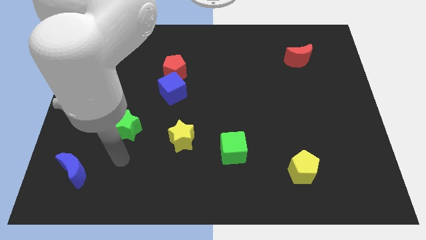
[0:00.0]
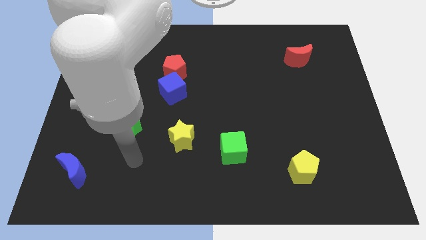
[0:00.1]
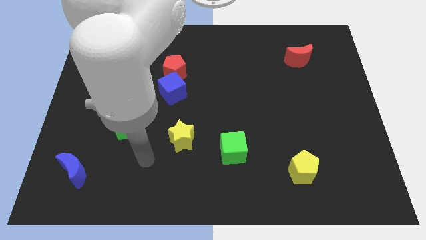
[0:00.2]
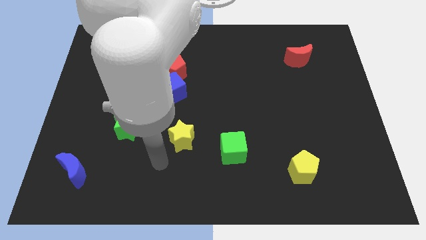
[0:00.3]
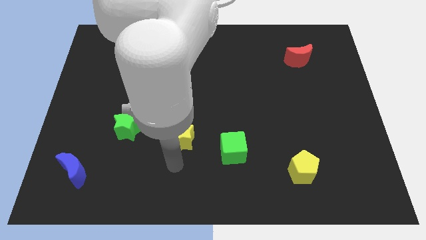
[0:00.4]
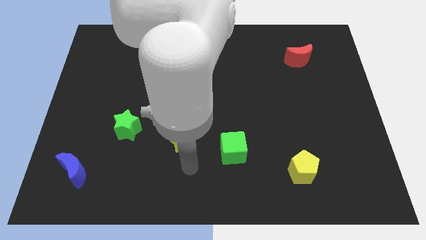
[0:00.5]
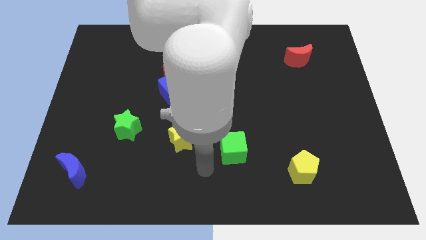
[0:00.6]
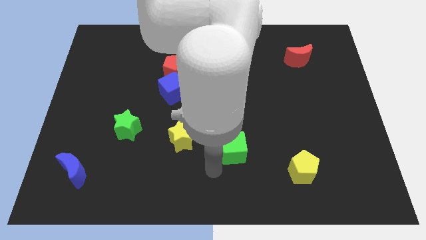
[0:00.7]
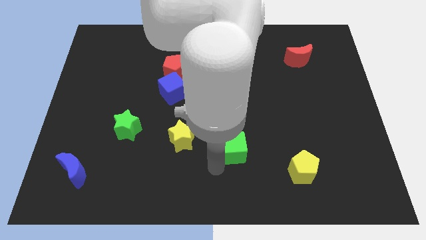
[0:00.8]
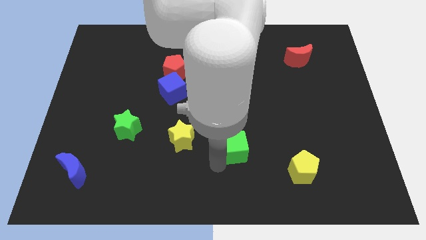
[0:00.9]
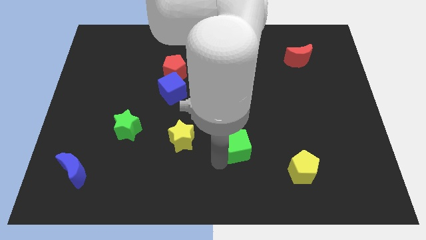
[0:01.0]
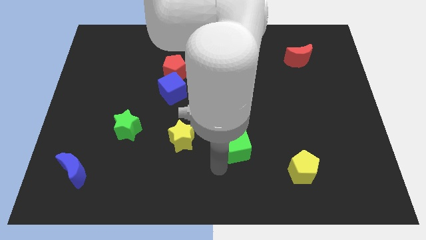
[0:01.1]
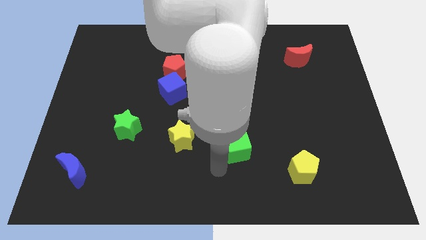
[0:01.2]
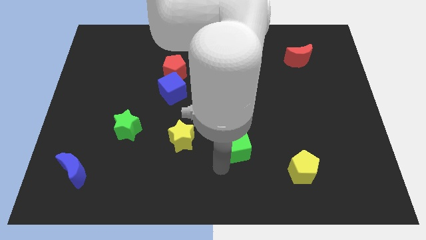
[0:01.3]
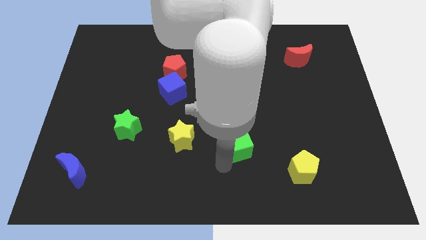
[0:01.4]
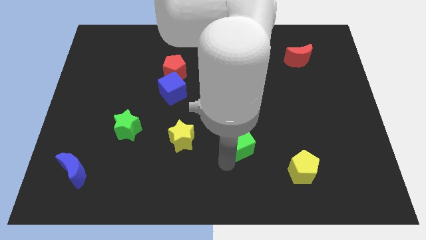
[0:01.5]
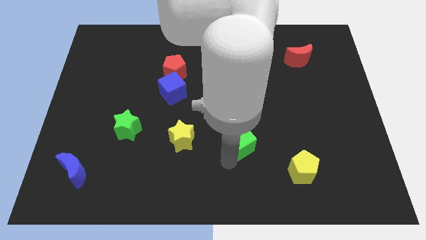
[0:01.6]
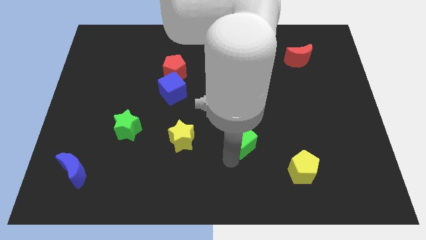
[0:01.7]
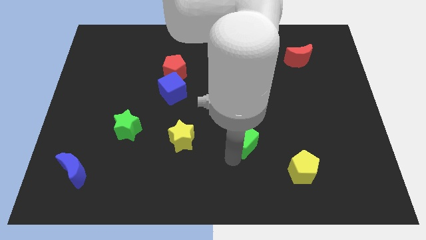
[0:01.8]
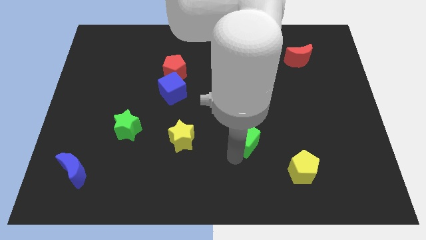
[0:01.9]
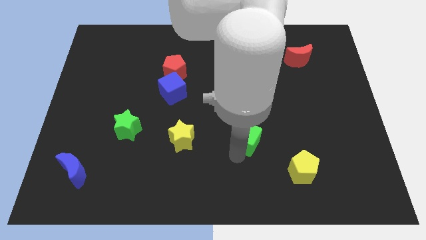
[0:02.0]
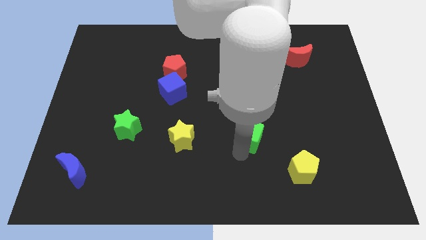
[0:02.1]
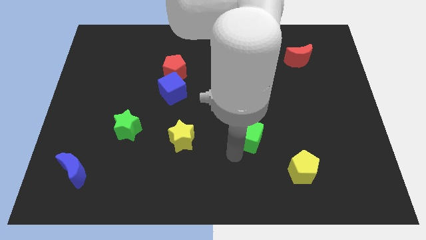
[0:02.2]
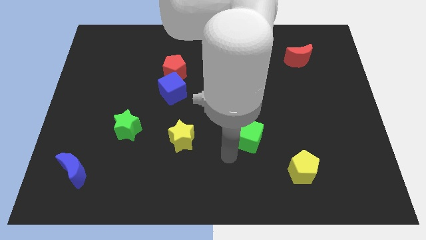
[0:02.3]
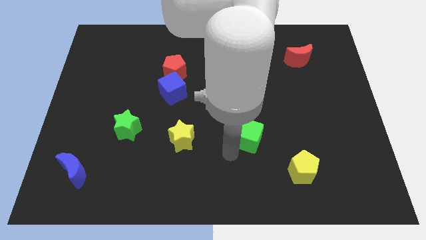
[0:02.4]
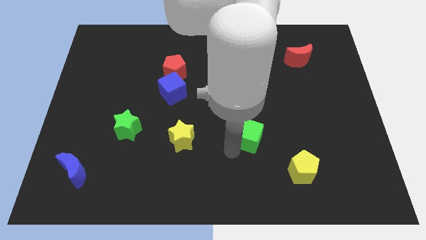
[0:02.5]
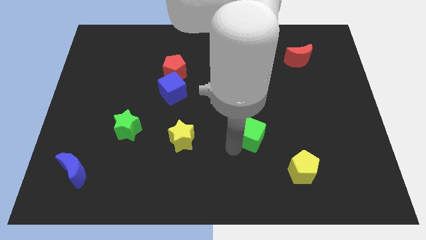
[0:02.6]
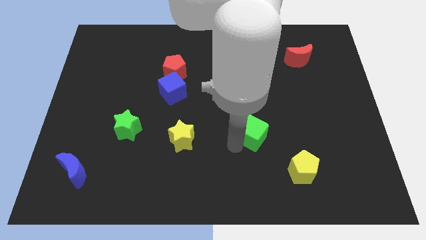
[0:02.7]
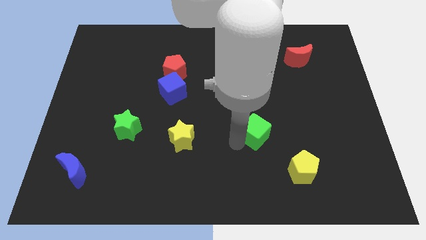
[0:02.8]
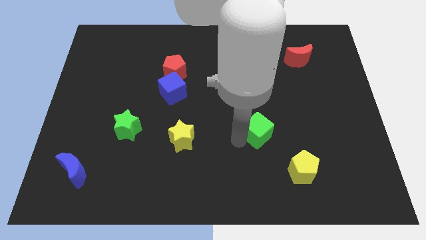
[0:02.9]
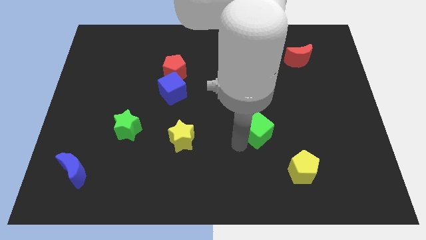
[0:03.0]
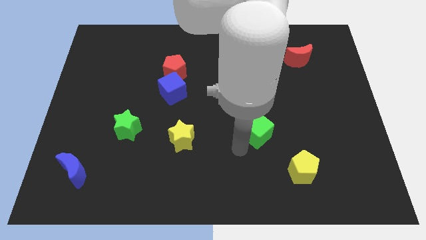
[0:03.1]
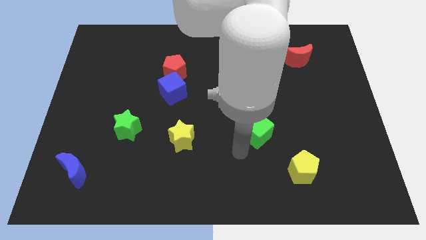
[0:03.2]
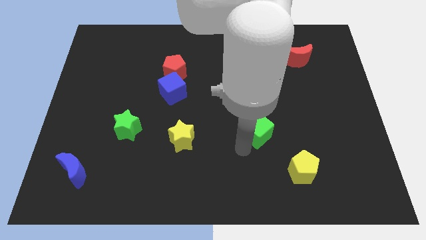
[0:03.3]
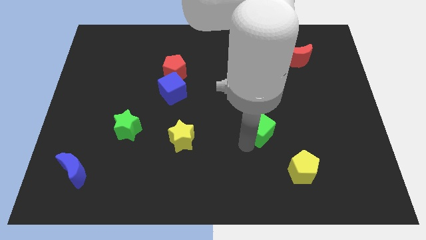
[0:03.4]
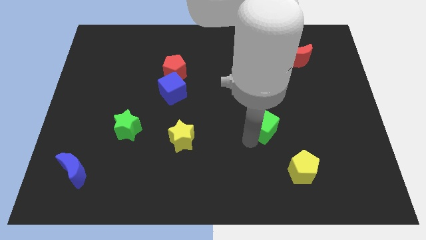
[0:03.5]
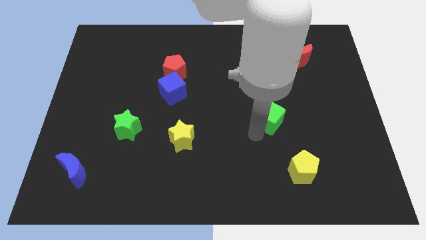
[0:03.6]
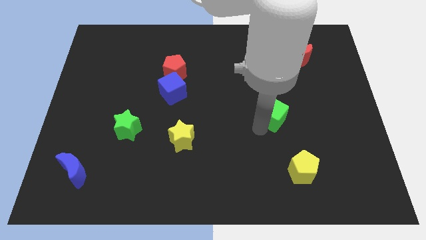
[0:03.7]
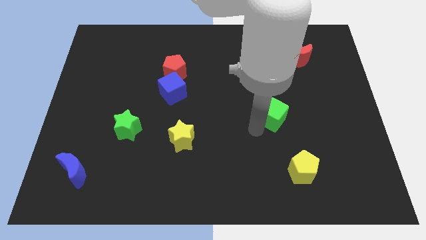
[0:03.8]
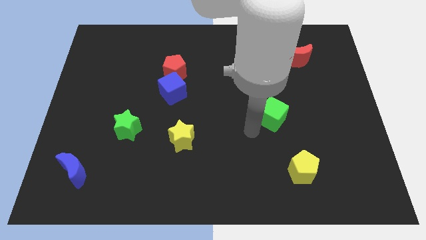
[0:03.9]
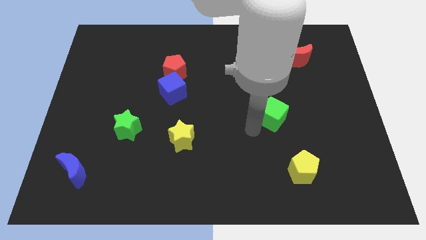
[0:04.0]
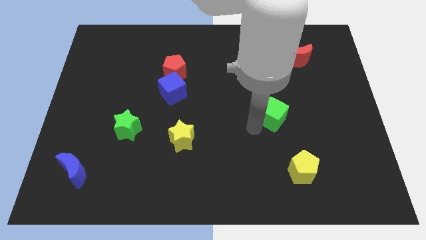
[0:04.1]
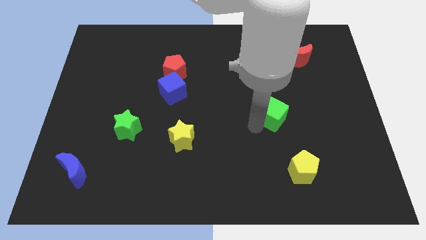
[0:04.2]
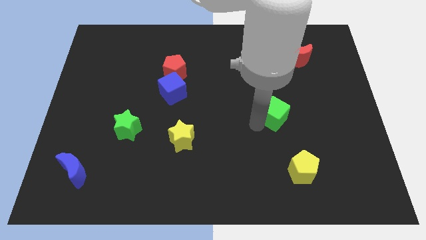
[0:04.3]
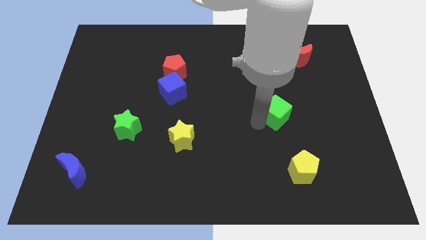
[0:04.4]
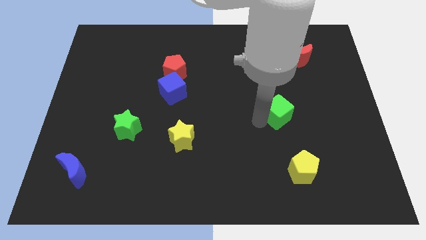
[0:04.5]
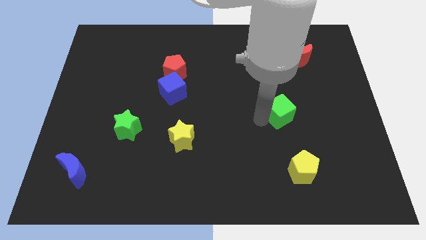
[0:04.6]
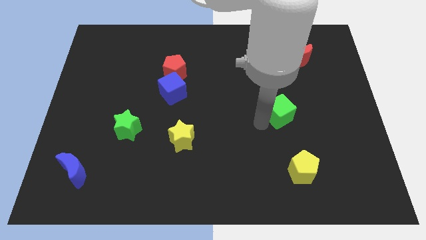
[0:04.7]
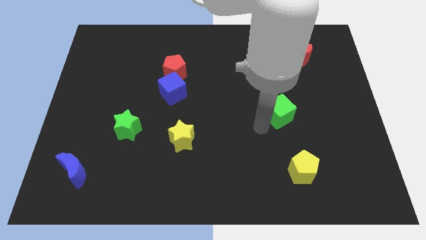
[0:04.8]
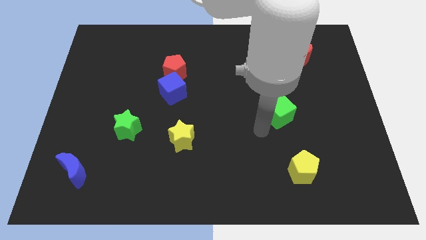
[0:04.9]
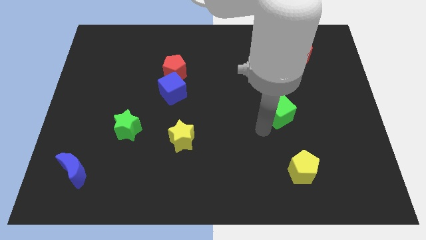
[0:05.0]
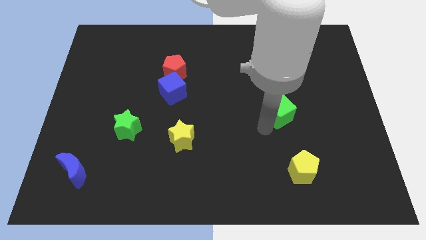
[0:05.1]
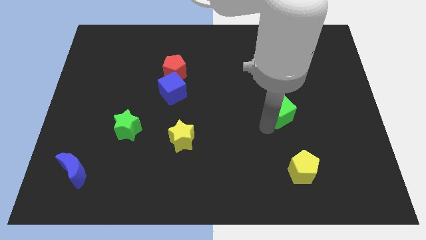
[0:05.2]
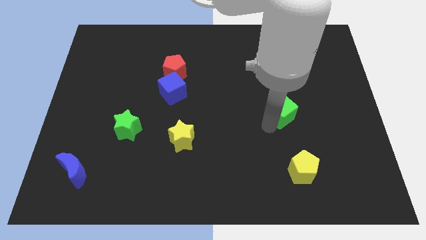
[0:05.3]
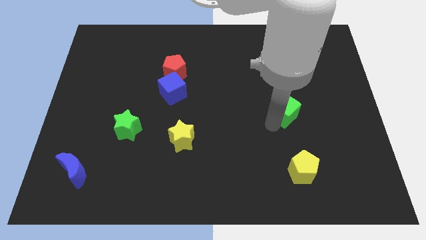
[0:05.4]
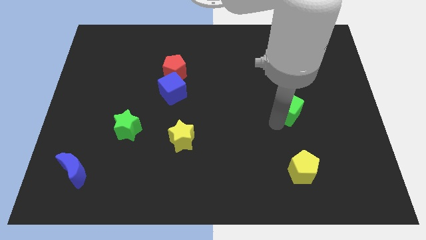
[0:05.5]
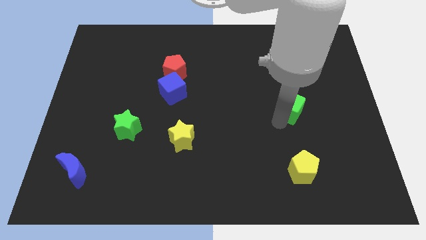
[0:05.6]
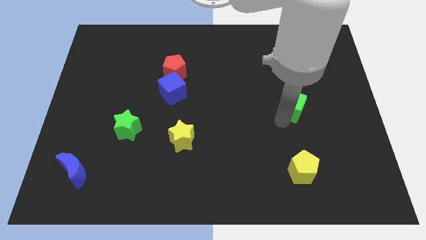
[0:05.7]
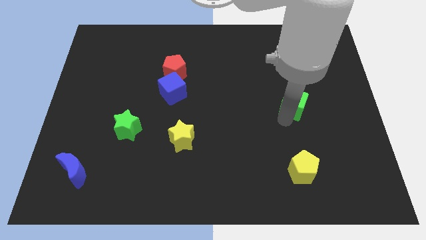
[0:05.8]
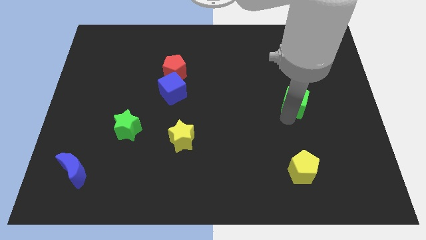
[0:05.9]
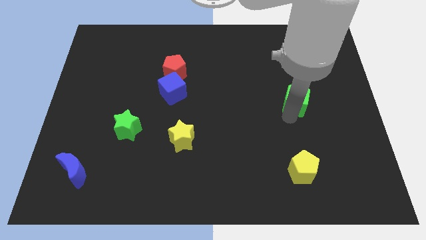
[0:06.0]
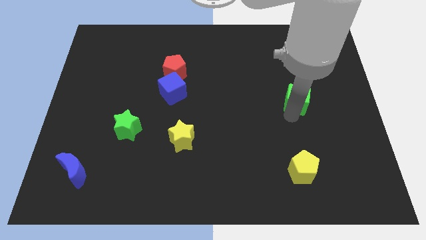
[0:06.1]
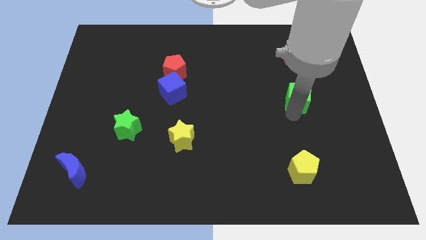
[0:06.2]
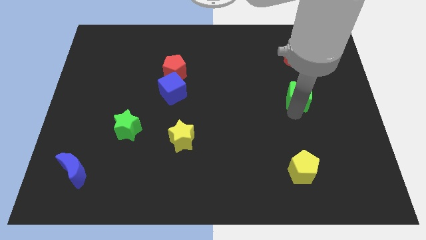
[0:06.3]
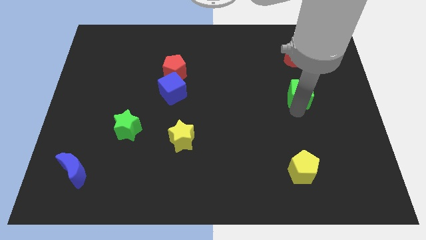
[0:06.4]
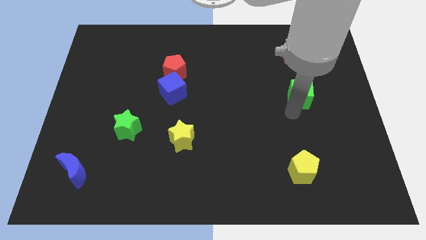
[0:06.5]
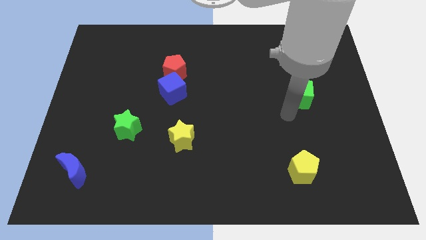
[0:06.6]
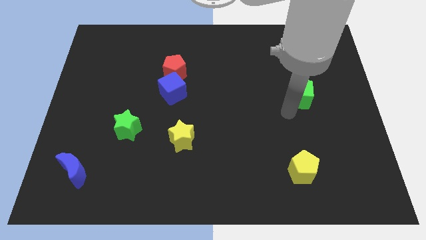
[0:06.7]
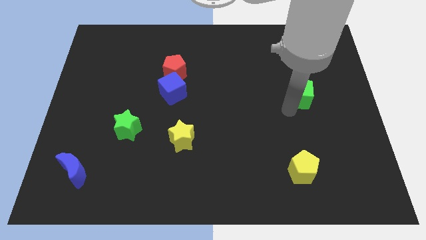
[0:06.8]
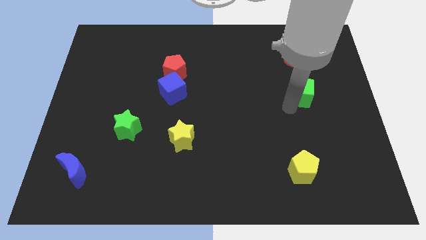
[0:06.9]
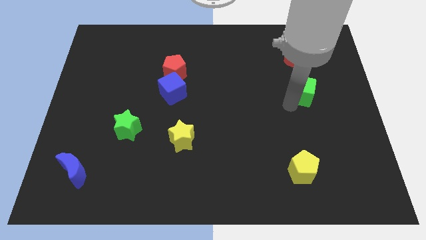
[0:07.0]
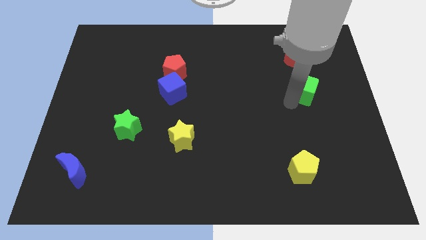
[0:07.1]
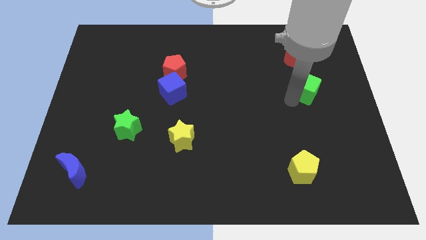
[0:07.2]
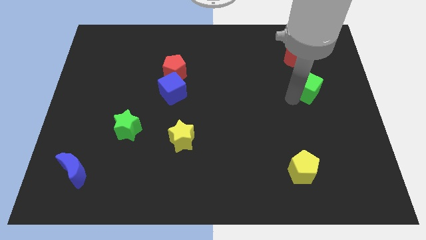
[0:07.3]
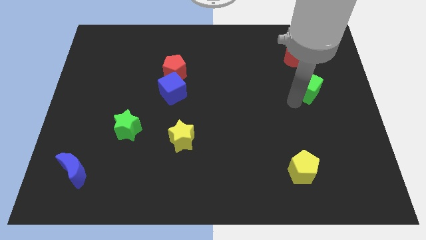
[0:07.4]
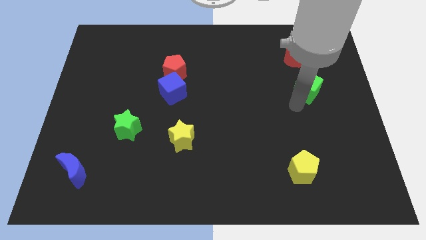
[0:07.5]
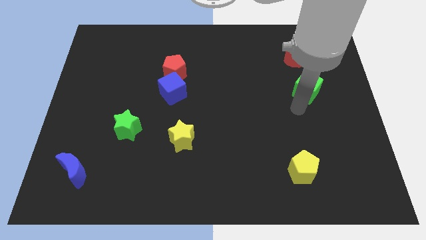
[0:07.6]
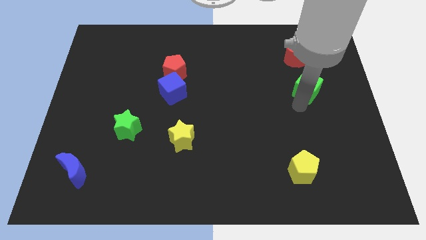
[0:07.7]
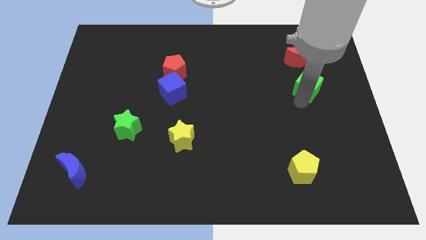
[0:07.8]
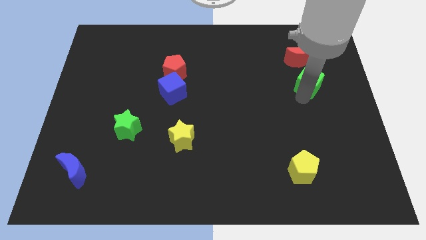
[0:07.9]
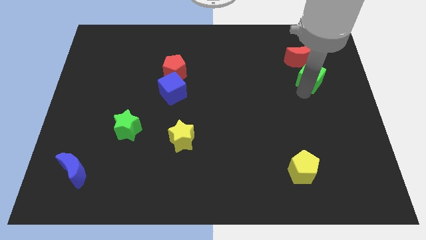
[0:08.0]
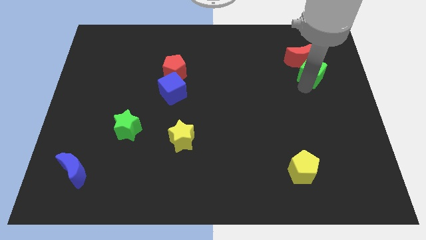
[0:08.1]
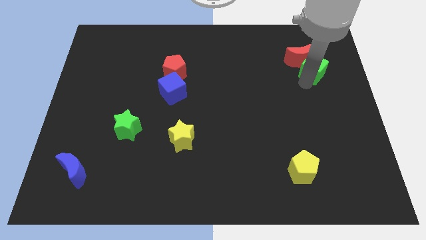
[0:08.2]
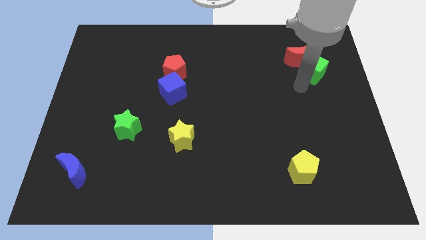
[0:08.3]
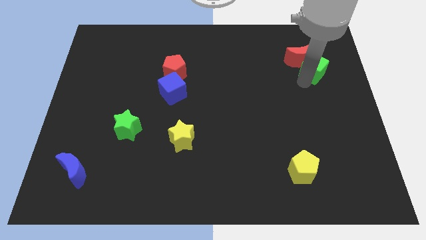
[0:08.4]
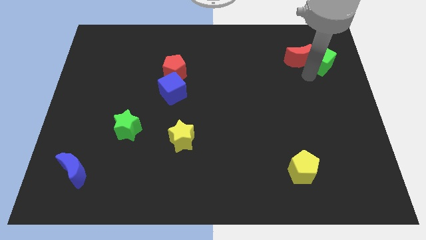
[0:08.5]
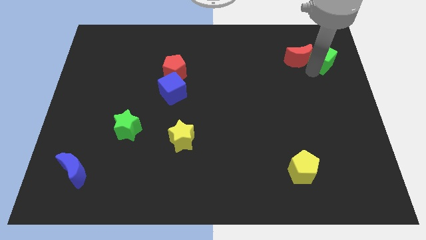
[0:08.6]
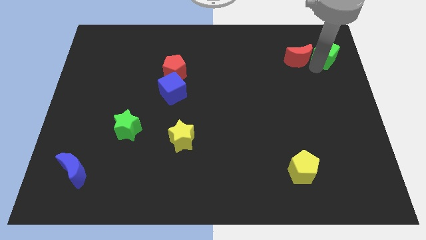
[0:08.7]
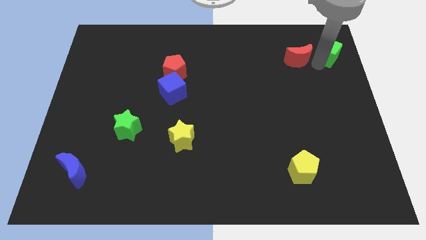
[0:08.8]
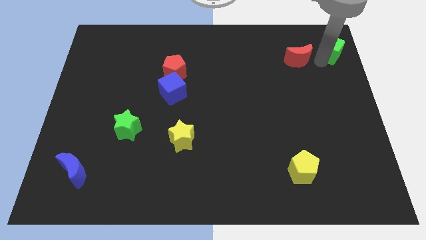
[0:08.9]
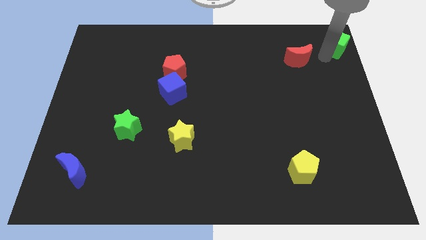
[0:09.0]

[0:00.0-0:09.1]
push the green cube to the top right
